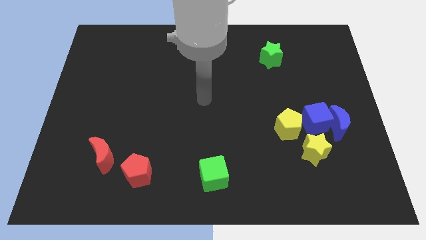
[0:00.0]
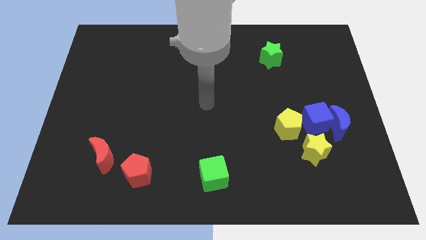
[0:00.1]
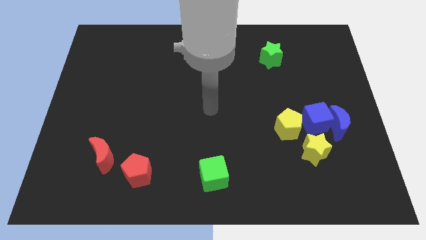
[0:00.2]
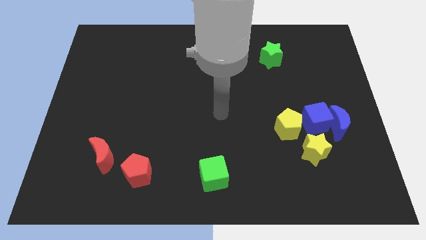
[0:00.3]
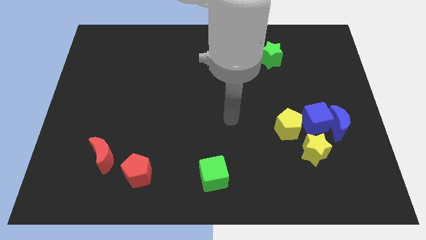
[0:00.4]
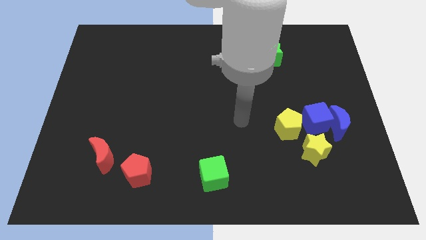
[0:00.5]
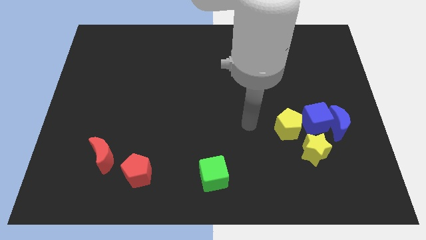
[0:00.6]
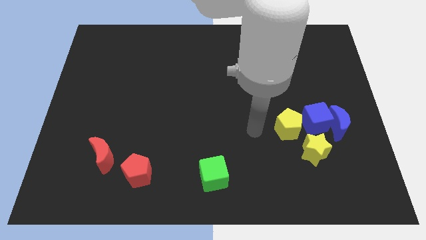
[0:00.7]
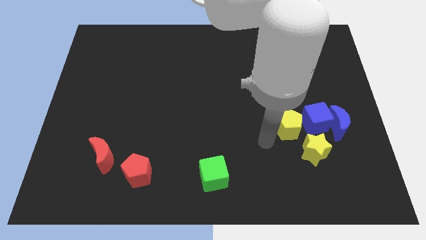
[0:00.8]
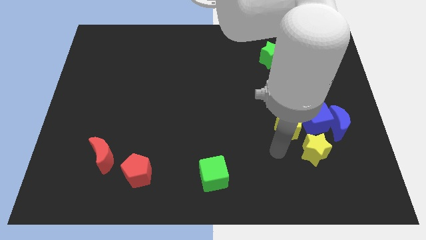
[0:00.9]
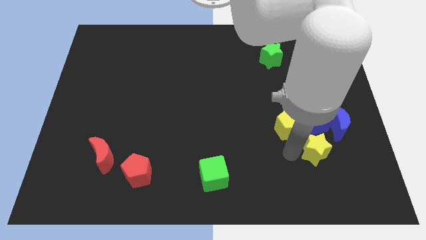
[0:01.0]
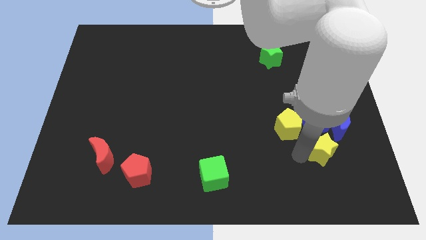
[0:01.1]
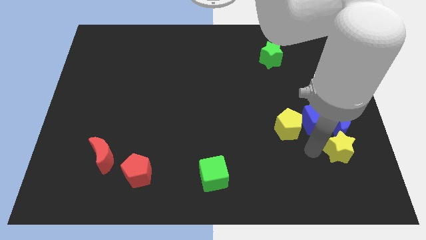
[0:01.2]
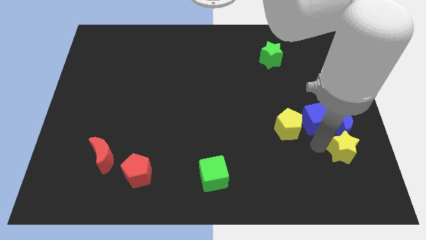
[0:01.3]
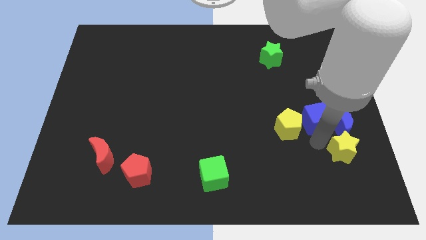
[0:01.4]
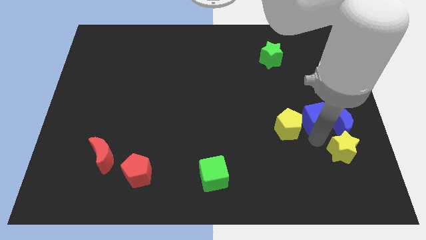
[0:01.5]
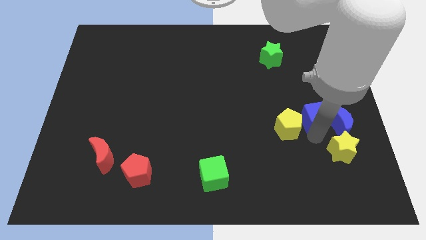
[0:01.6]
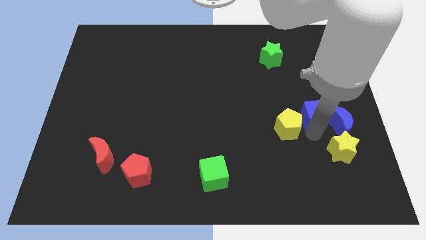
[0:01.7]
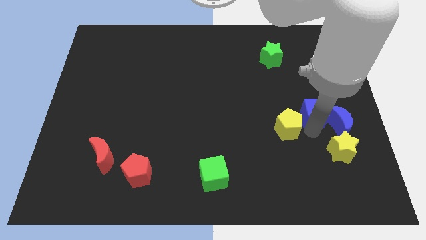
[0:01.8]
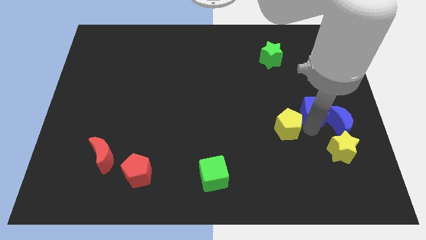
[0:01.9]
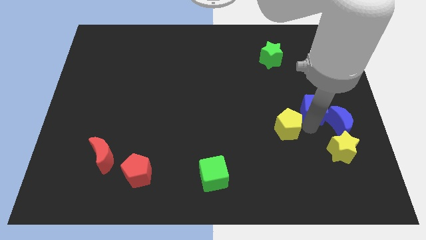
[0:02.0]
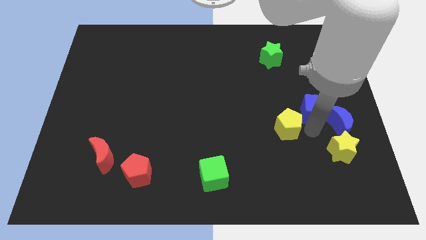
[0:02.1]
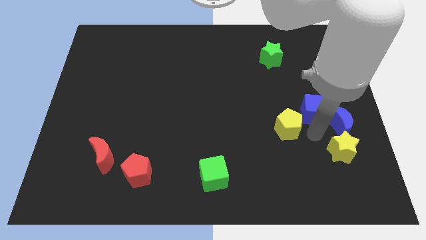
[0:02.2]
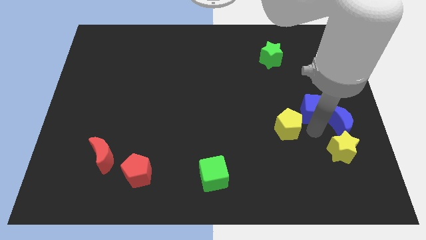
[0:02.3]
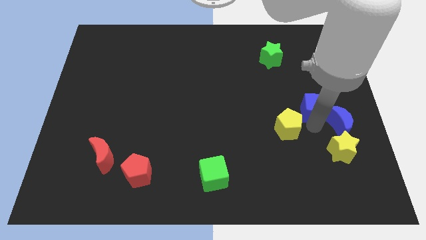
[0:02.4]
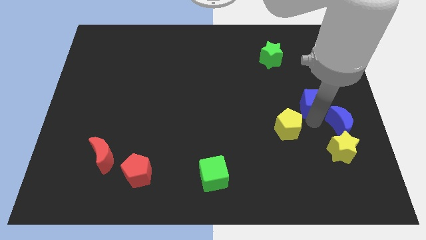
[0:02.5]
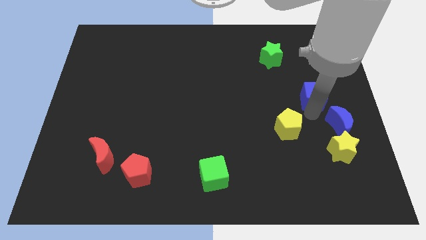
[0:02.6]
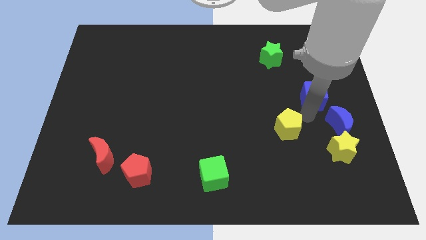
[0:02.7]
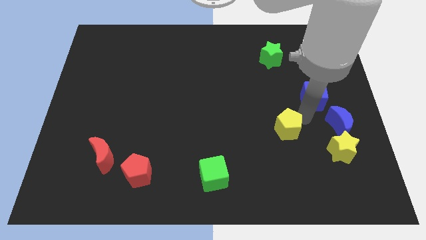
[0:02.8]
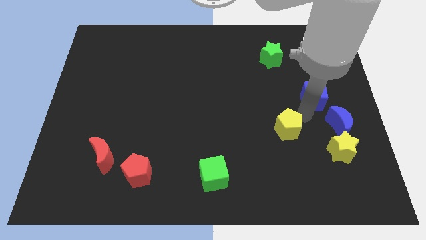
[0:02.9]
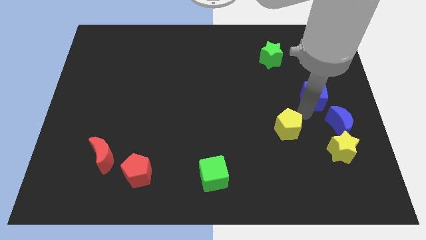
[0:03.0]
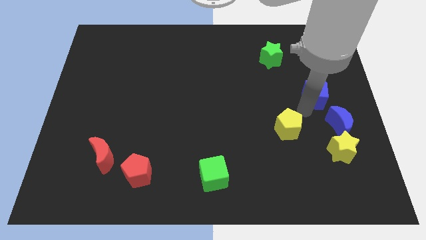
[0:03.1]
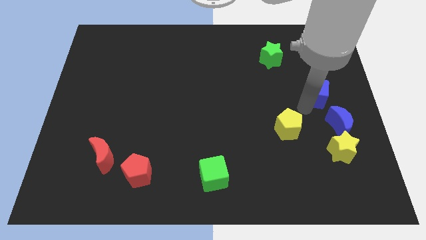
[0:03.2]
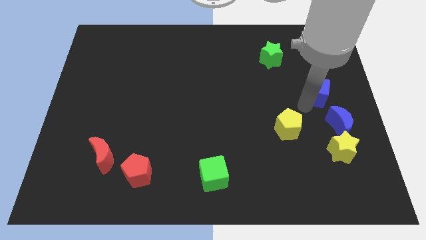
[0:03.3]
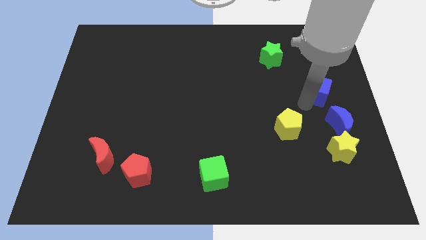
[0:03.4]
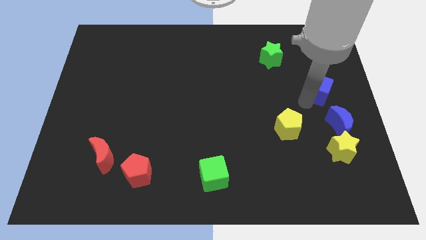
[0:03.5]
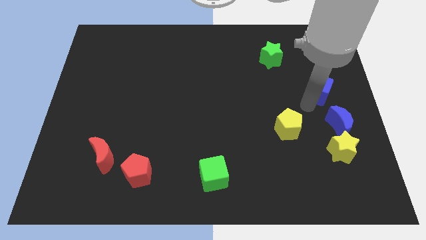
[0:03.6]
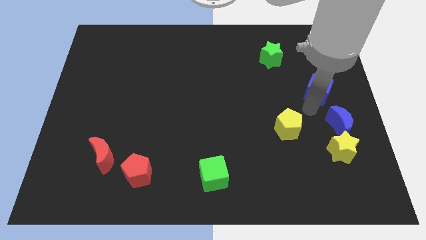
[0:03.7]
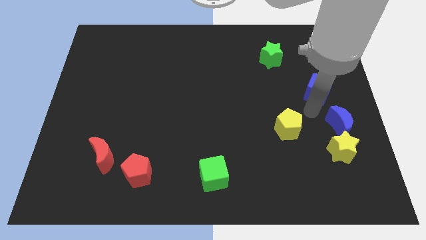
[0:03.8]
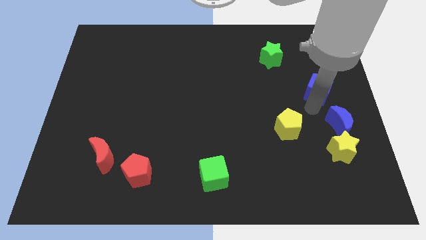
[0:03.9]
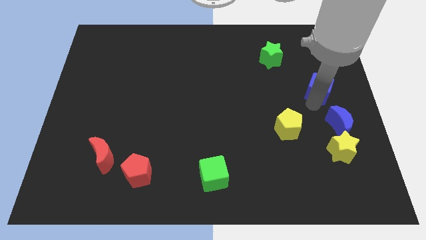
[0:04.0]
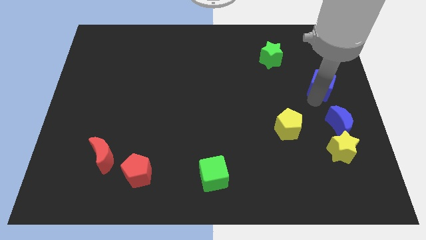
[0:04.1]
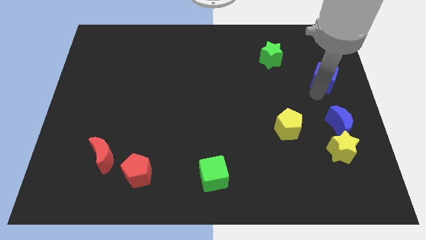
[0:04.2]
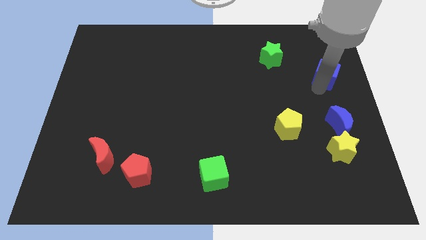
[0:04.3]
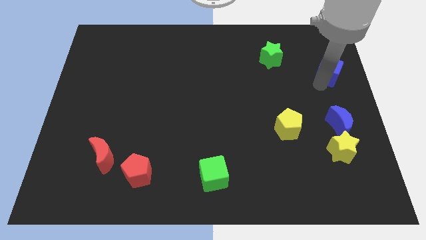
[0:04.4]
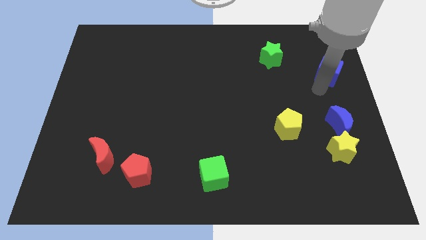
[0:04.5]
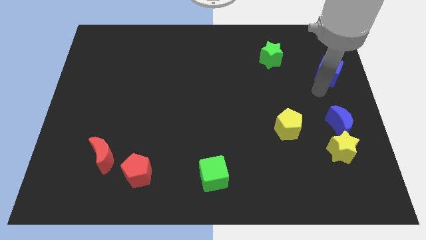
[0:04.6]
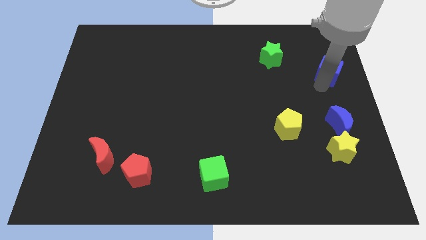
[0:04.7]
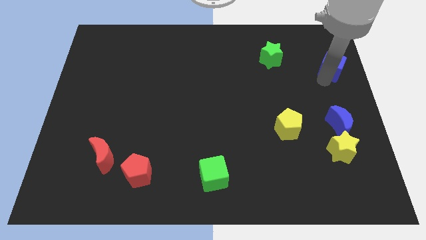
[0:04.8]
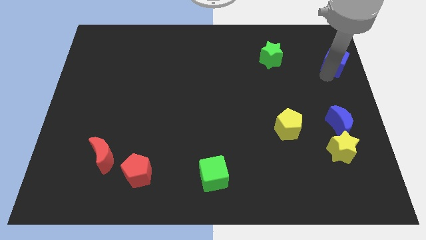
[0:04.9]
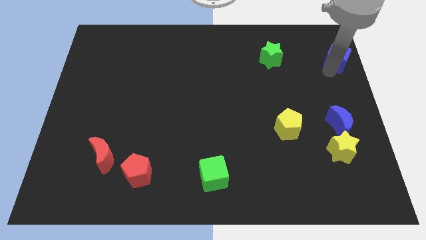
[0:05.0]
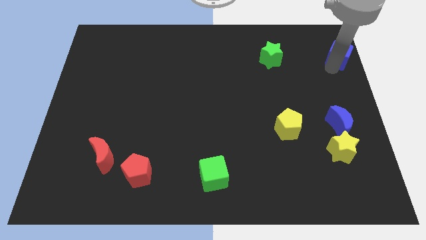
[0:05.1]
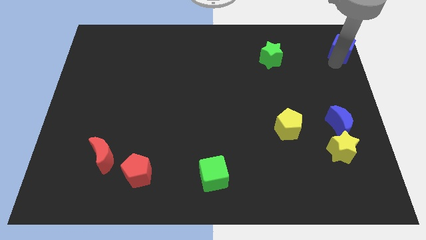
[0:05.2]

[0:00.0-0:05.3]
slide the blue cube to the top right of the board
